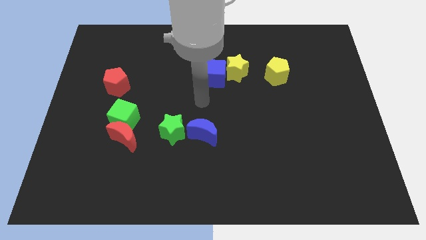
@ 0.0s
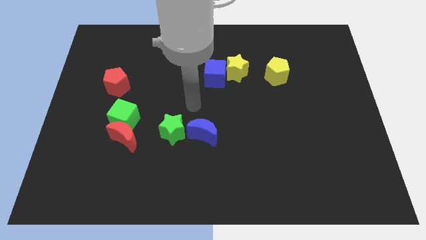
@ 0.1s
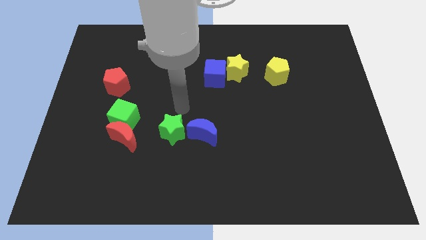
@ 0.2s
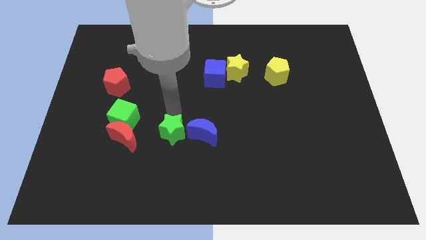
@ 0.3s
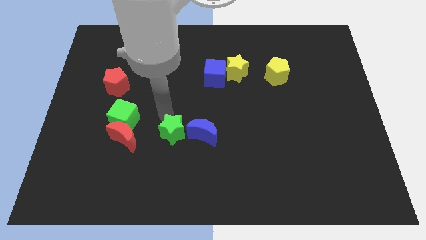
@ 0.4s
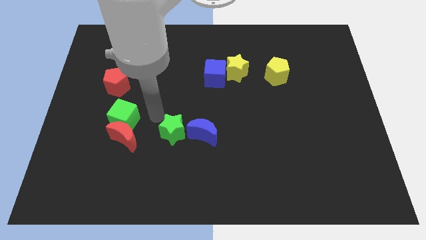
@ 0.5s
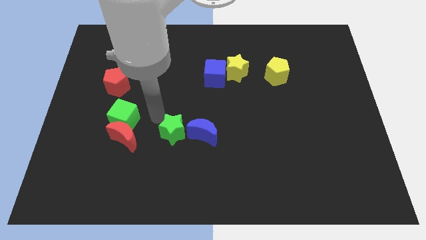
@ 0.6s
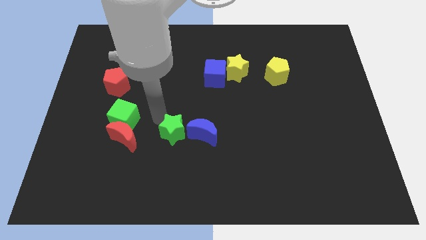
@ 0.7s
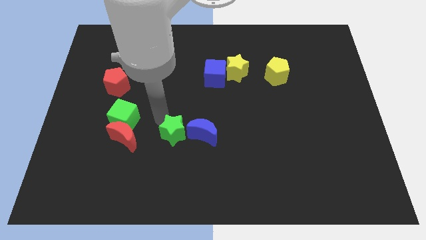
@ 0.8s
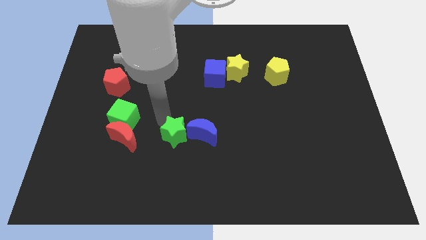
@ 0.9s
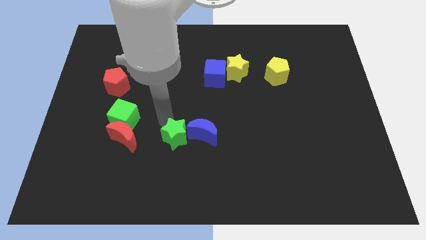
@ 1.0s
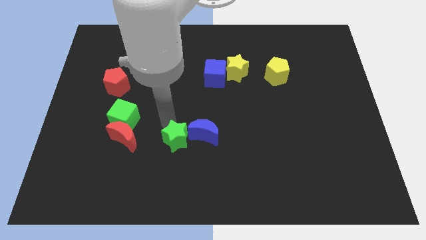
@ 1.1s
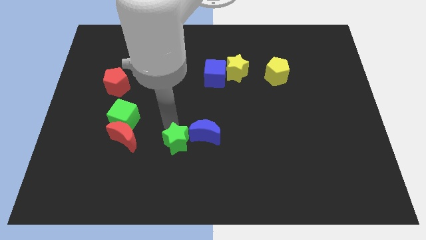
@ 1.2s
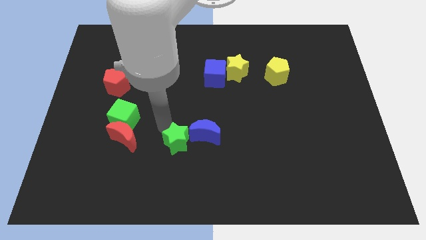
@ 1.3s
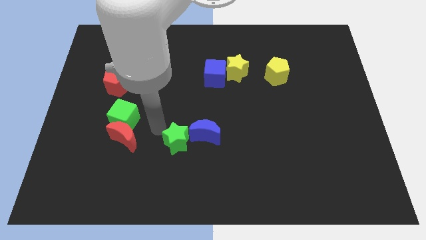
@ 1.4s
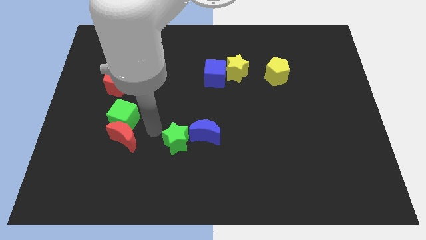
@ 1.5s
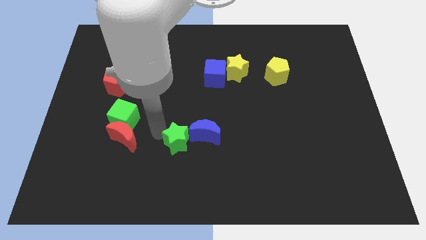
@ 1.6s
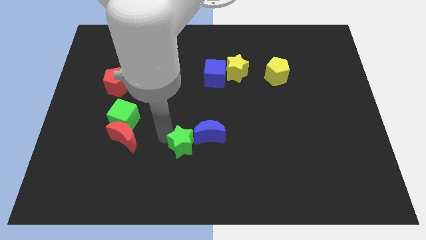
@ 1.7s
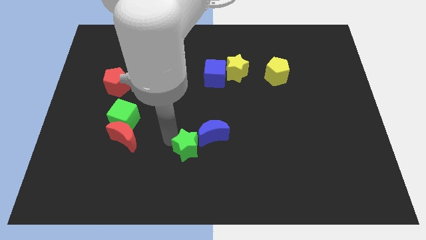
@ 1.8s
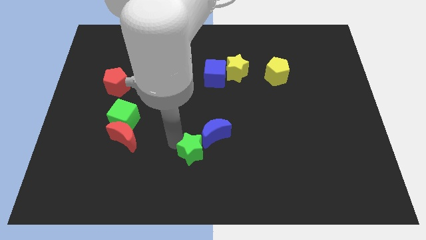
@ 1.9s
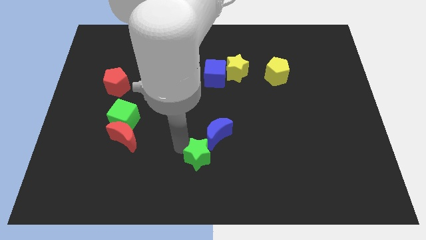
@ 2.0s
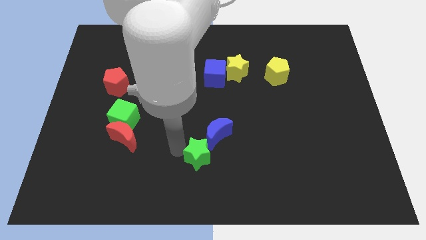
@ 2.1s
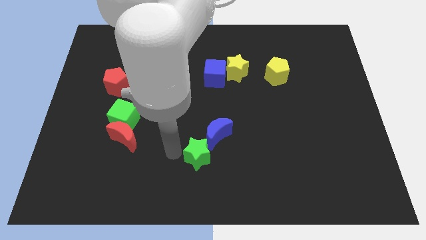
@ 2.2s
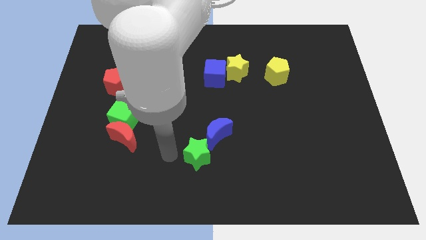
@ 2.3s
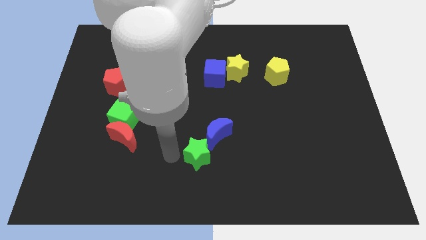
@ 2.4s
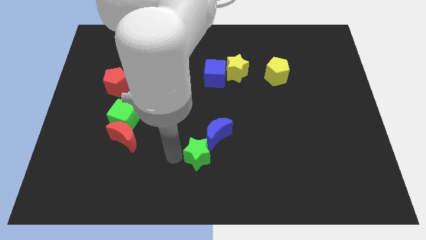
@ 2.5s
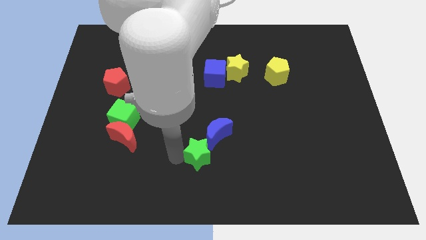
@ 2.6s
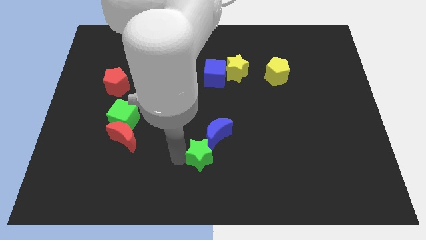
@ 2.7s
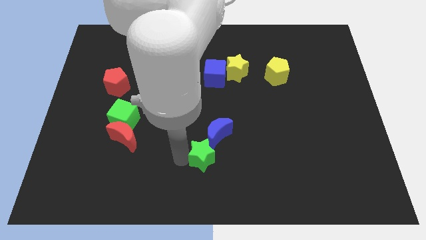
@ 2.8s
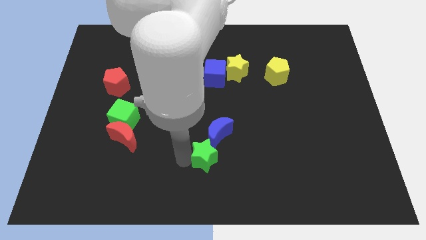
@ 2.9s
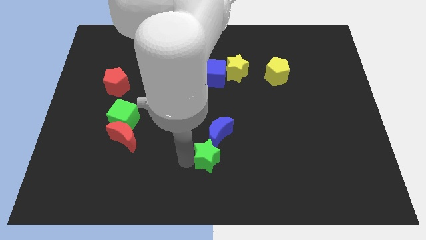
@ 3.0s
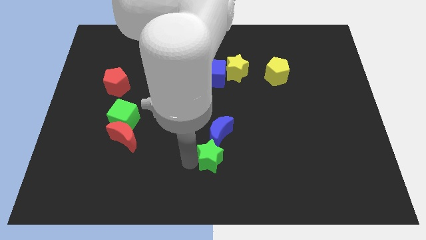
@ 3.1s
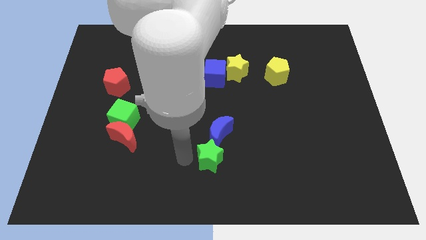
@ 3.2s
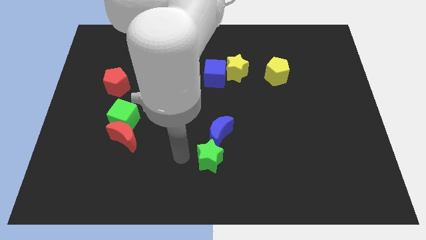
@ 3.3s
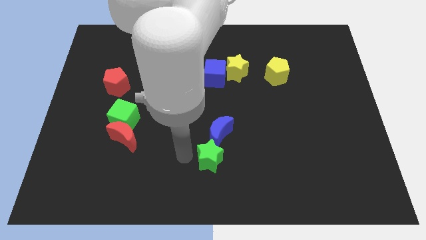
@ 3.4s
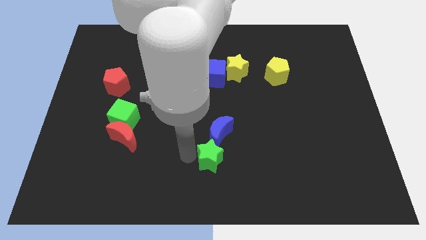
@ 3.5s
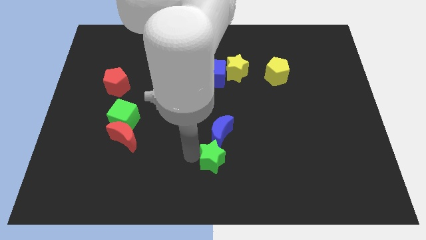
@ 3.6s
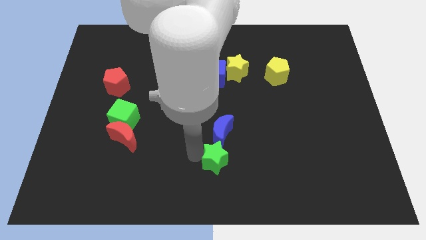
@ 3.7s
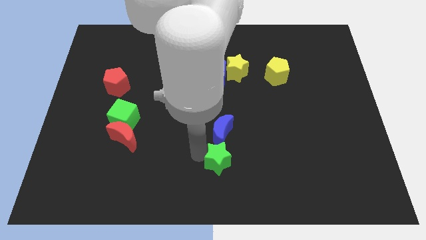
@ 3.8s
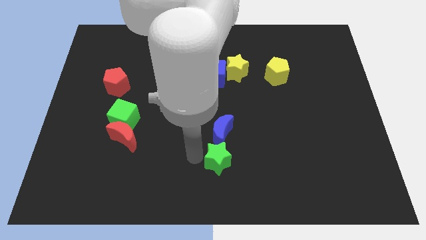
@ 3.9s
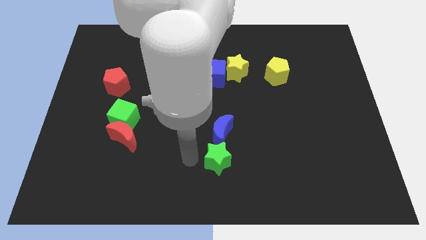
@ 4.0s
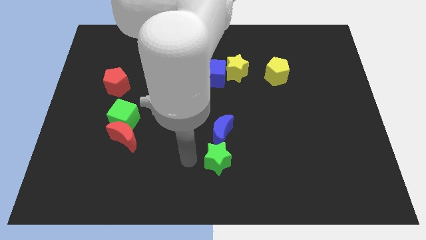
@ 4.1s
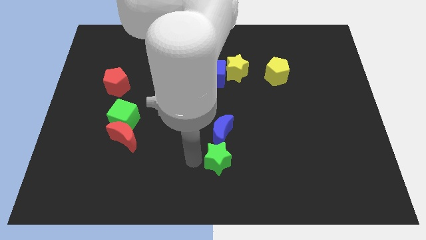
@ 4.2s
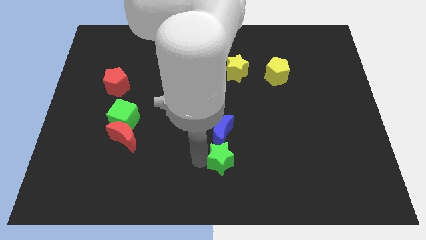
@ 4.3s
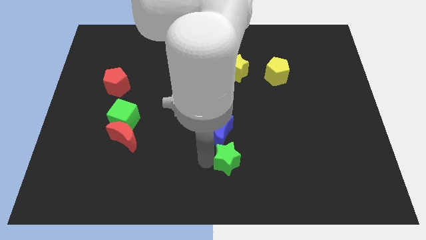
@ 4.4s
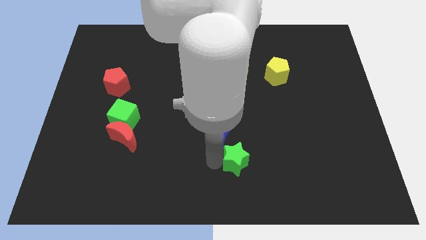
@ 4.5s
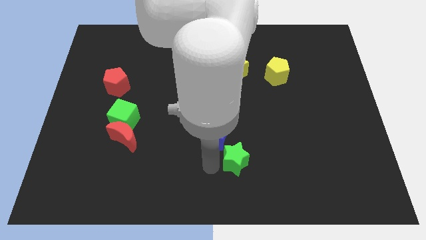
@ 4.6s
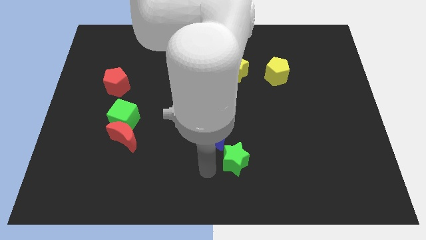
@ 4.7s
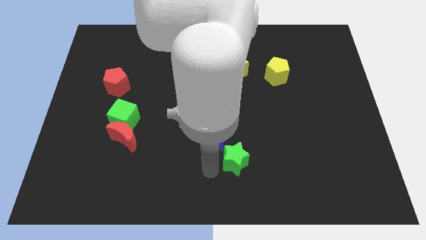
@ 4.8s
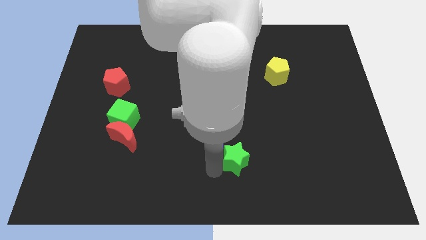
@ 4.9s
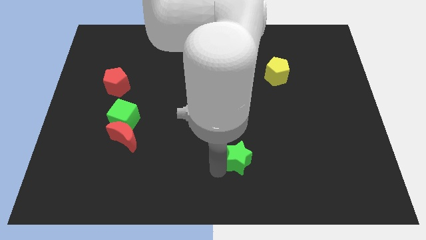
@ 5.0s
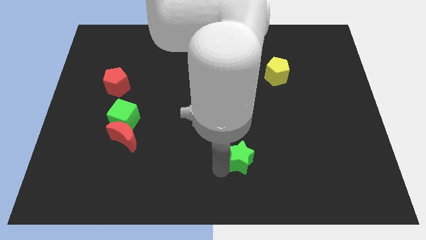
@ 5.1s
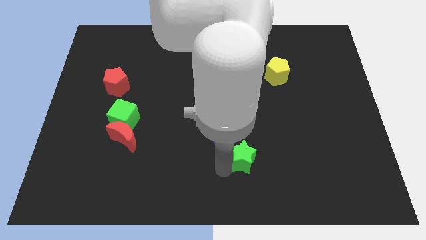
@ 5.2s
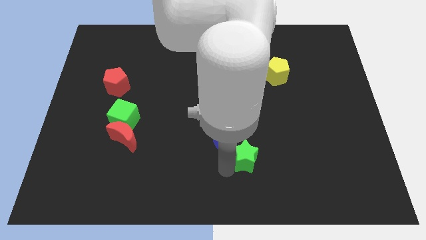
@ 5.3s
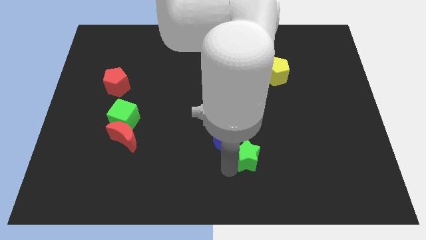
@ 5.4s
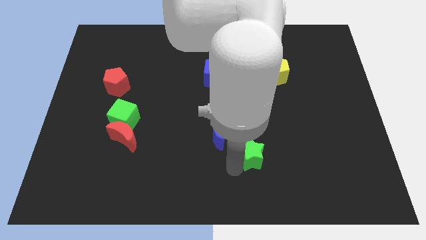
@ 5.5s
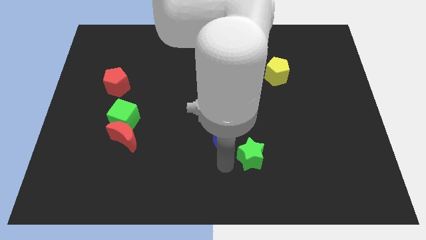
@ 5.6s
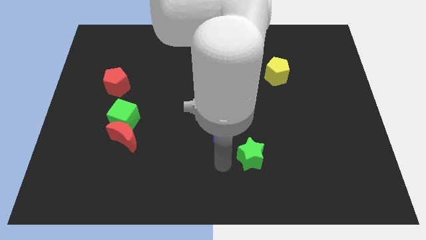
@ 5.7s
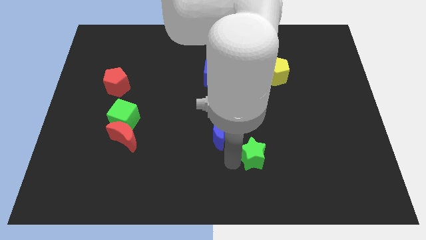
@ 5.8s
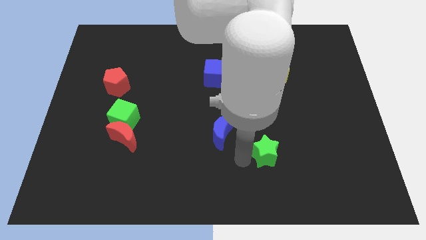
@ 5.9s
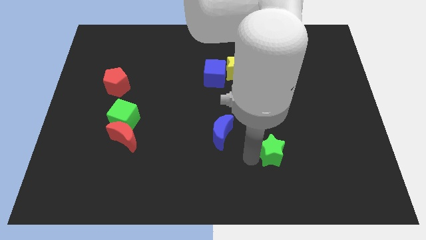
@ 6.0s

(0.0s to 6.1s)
push the green star to the right

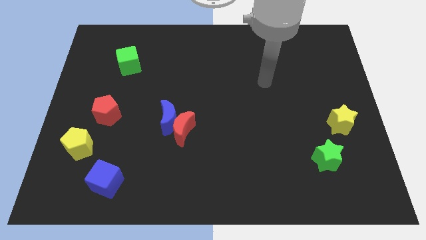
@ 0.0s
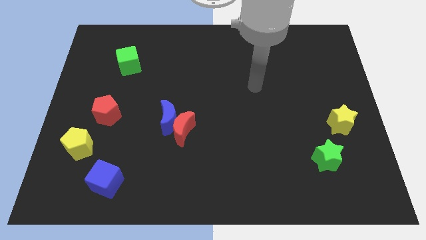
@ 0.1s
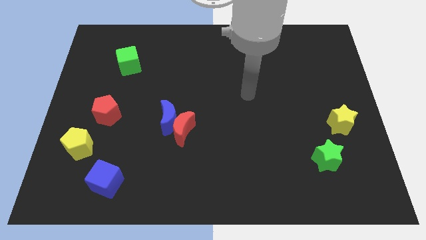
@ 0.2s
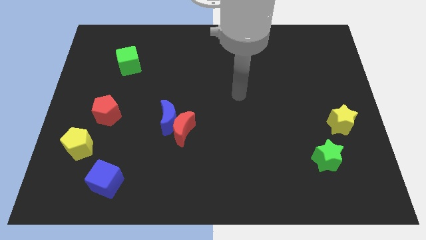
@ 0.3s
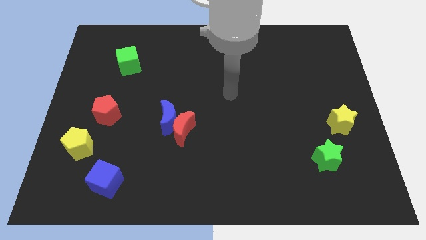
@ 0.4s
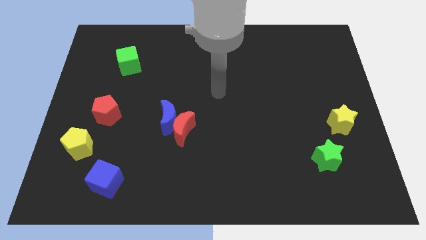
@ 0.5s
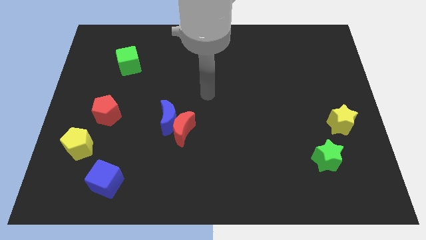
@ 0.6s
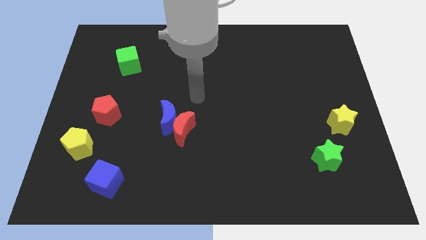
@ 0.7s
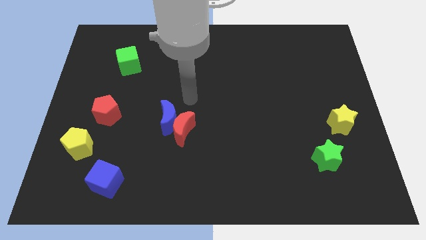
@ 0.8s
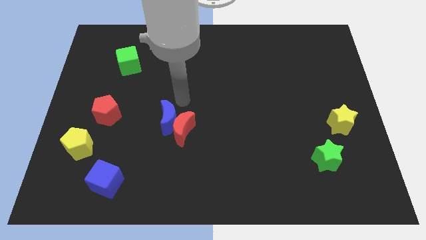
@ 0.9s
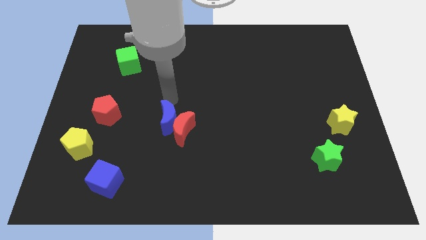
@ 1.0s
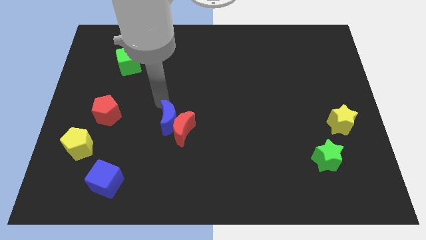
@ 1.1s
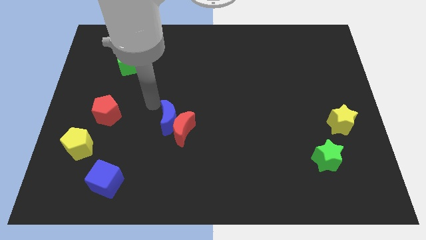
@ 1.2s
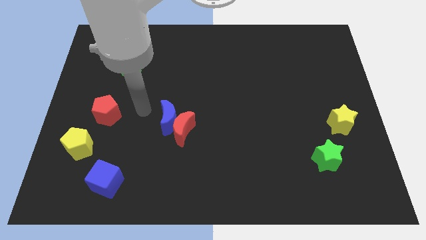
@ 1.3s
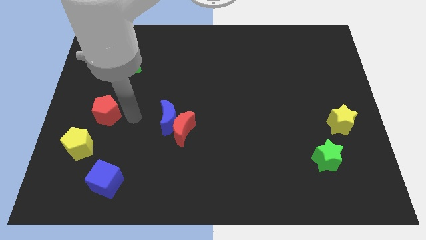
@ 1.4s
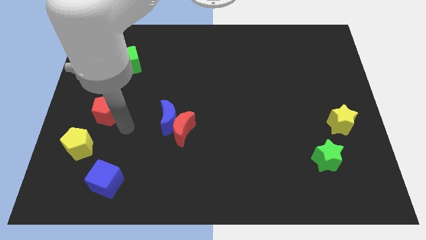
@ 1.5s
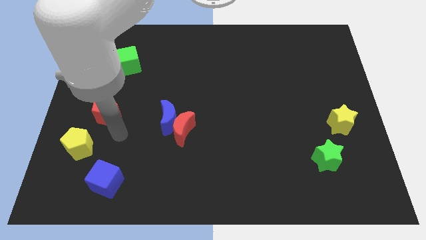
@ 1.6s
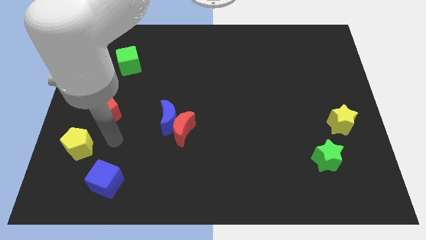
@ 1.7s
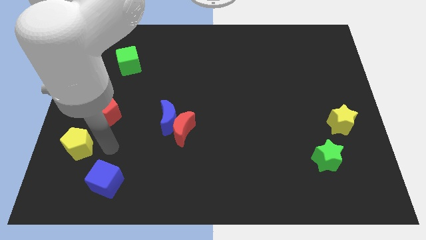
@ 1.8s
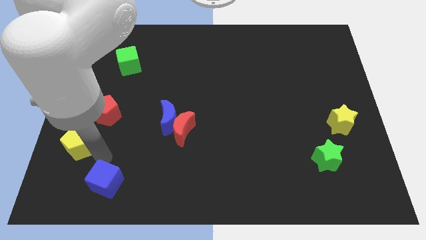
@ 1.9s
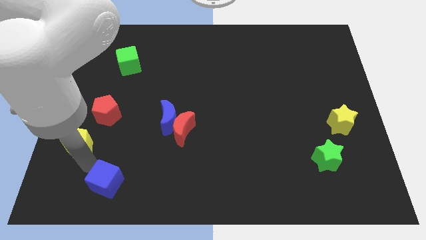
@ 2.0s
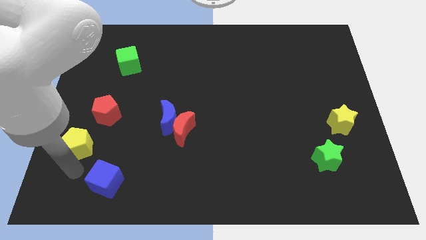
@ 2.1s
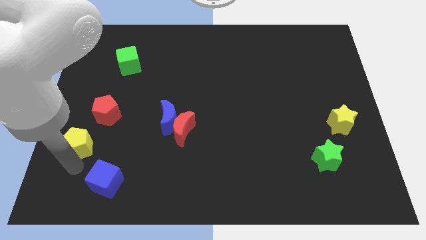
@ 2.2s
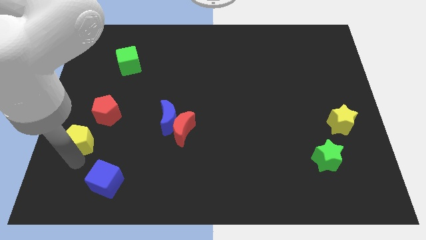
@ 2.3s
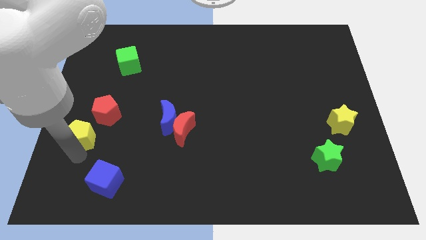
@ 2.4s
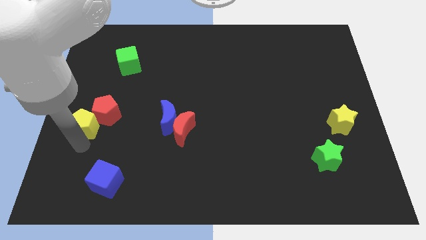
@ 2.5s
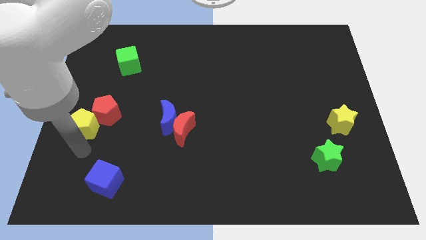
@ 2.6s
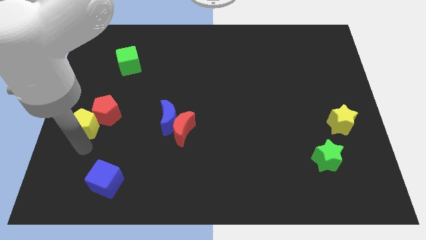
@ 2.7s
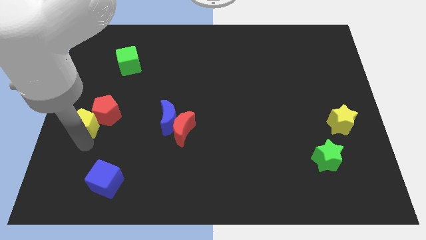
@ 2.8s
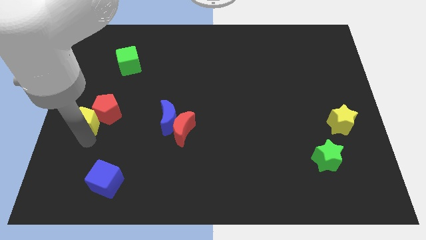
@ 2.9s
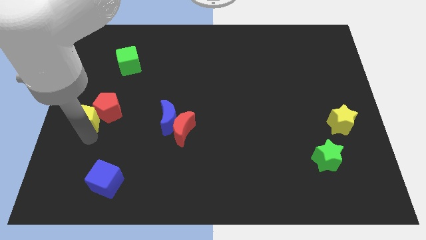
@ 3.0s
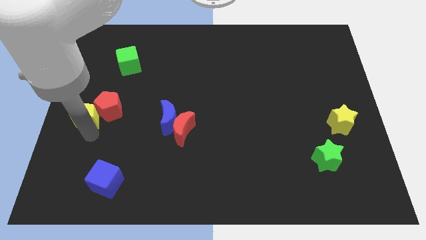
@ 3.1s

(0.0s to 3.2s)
push the yellow pentagon up a bit
